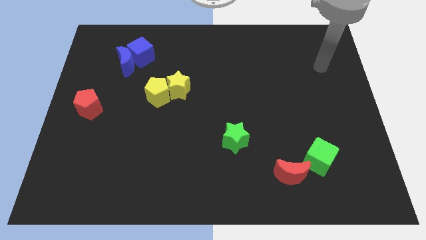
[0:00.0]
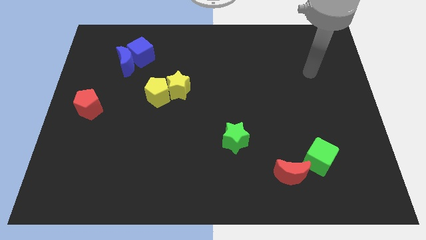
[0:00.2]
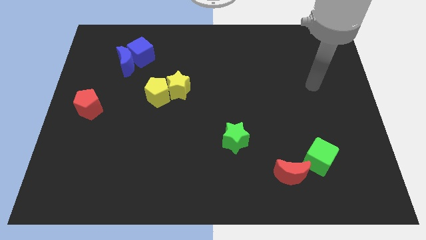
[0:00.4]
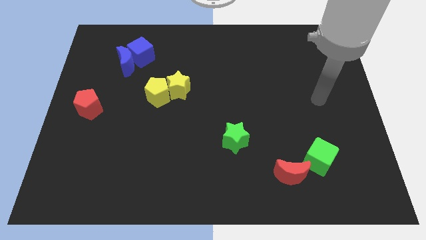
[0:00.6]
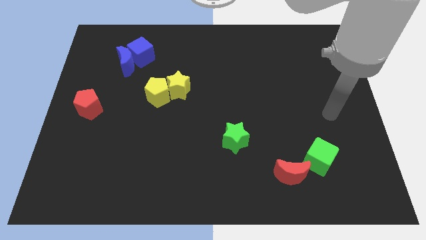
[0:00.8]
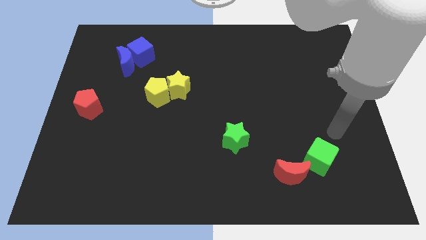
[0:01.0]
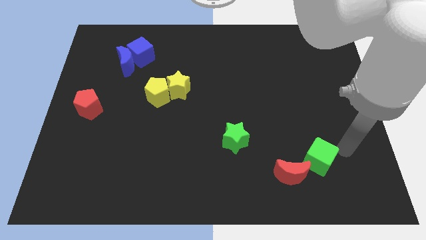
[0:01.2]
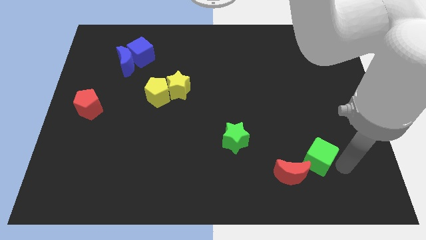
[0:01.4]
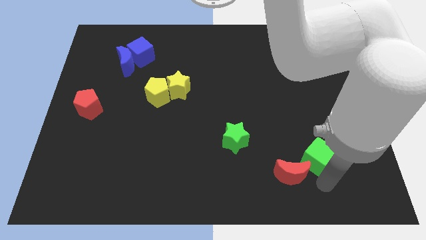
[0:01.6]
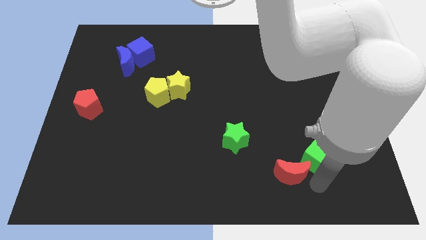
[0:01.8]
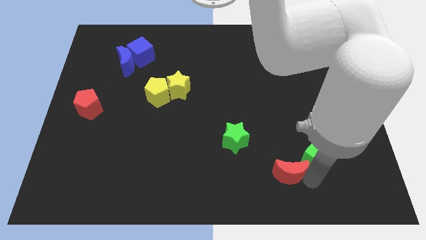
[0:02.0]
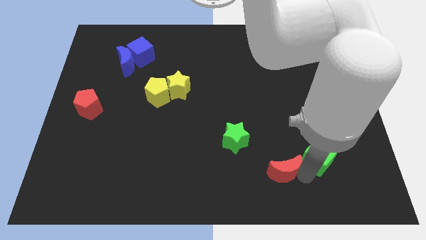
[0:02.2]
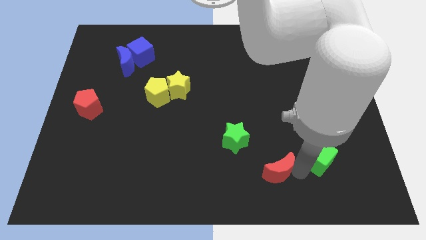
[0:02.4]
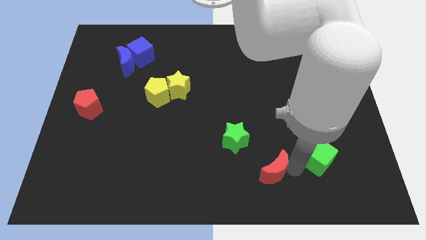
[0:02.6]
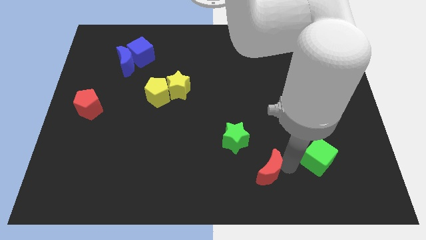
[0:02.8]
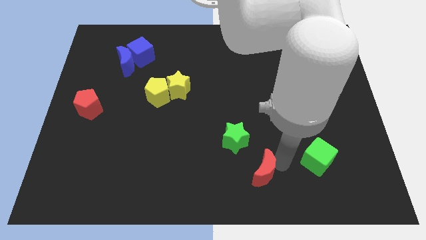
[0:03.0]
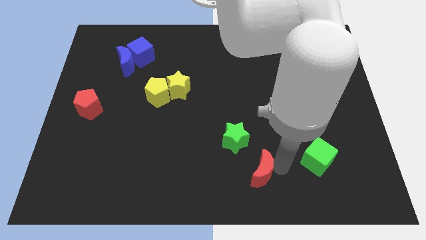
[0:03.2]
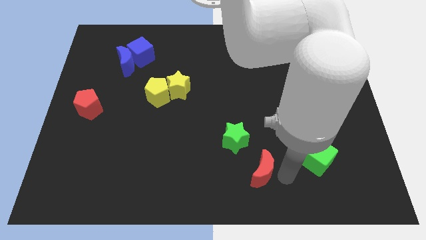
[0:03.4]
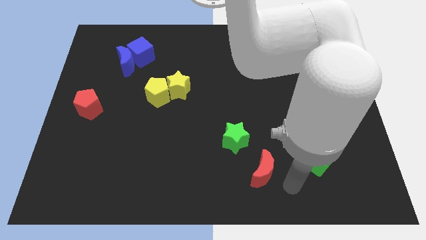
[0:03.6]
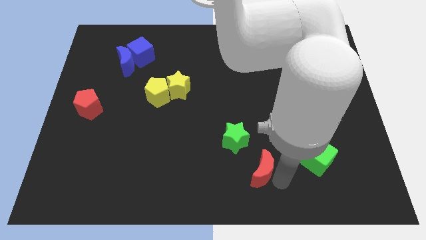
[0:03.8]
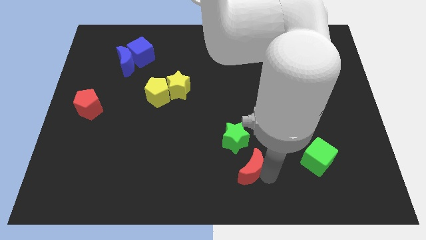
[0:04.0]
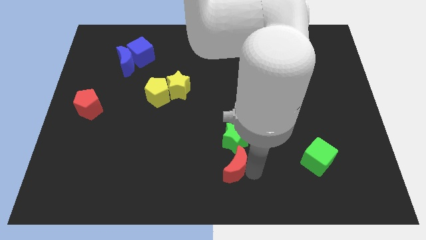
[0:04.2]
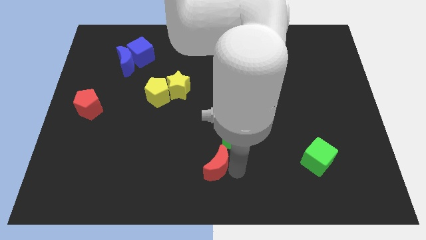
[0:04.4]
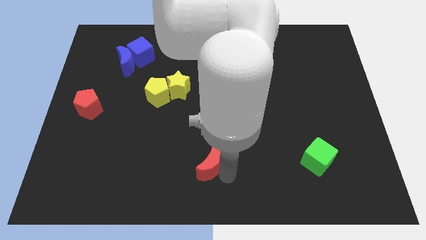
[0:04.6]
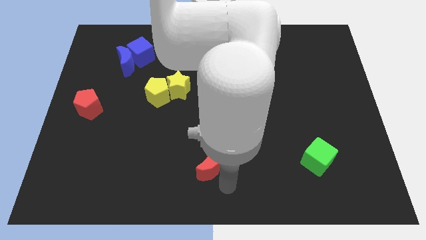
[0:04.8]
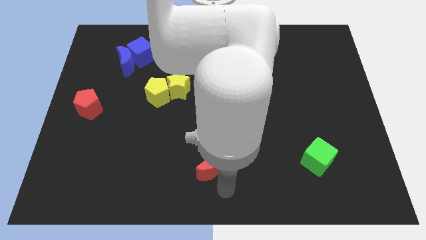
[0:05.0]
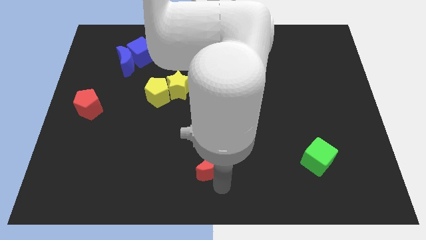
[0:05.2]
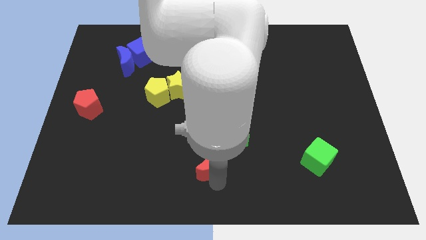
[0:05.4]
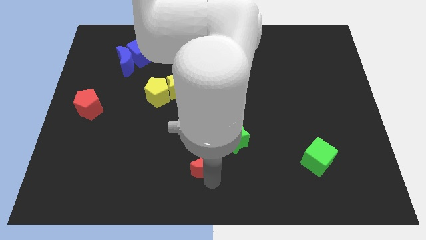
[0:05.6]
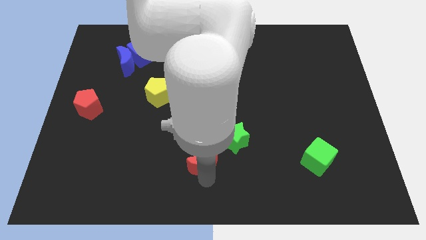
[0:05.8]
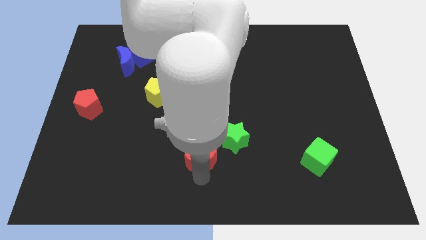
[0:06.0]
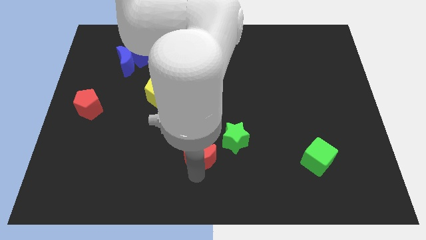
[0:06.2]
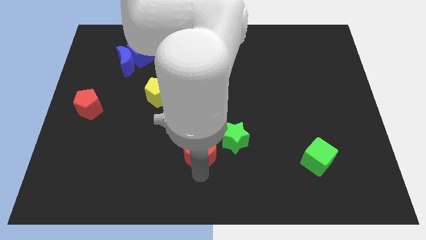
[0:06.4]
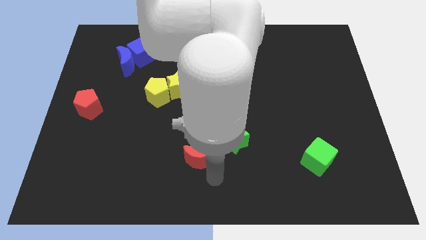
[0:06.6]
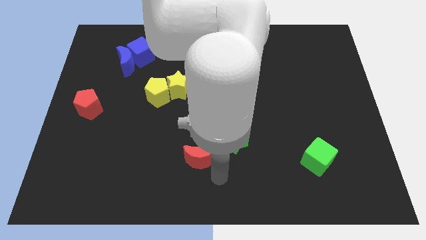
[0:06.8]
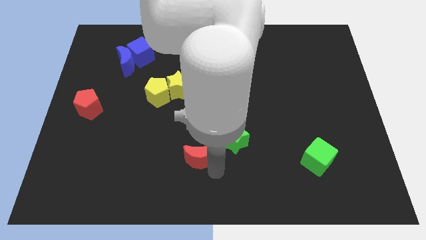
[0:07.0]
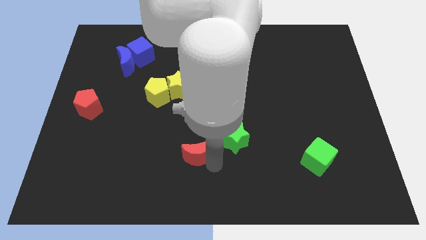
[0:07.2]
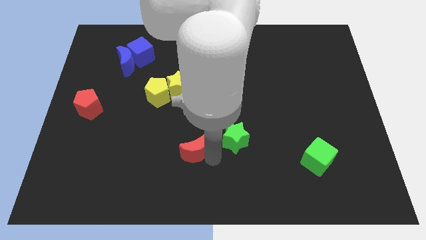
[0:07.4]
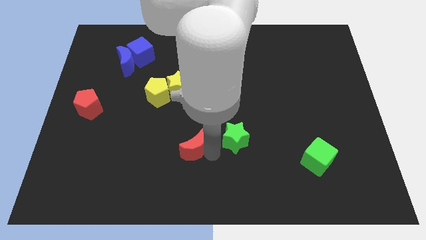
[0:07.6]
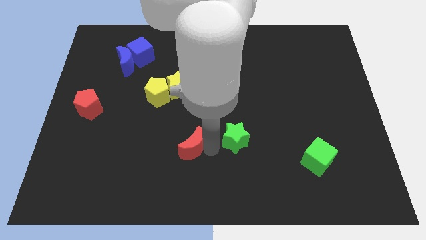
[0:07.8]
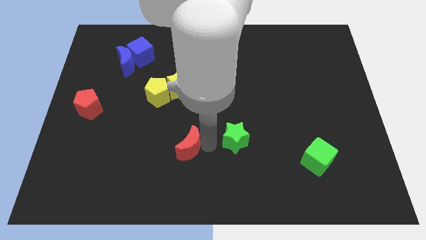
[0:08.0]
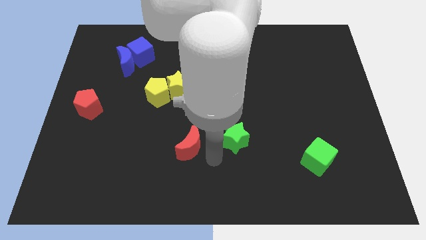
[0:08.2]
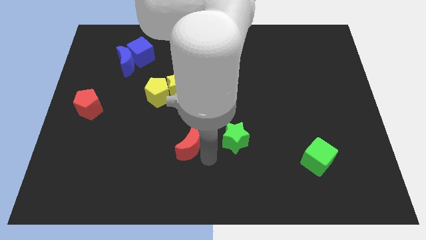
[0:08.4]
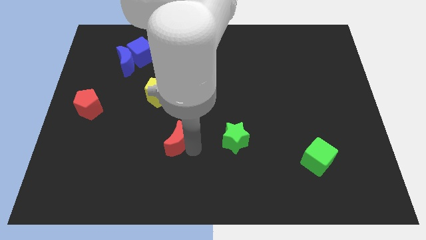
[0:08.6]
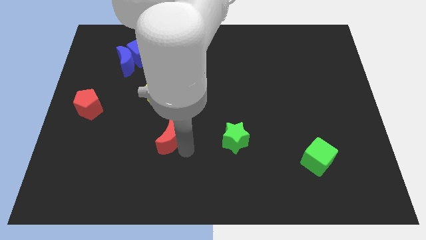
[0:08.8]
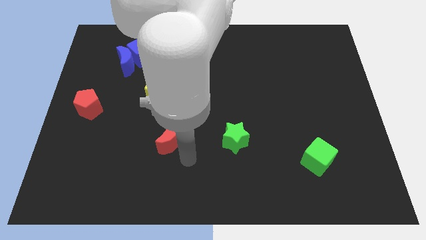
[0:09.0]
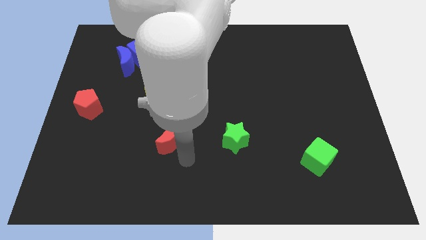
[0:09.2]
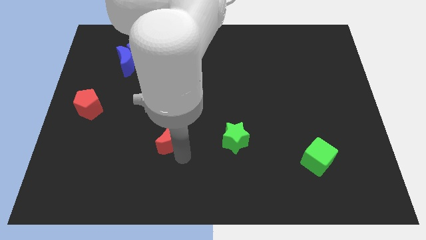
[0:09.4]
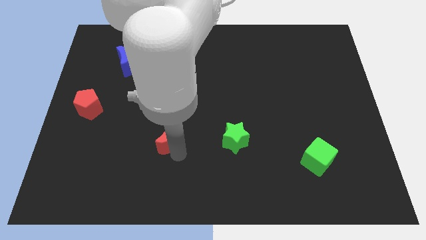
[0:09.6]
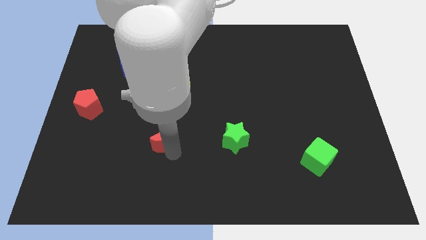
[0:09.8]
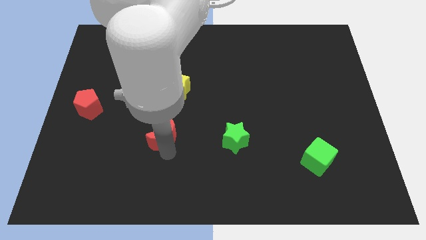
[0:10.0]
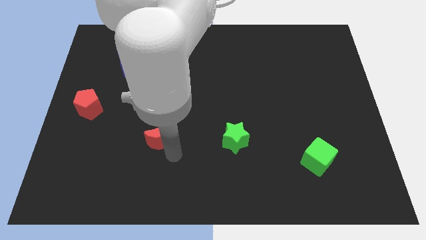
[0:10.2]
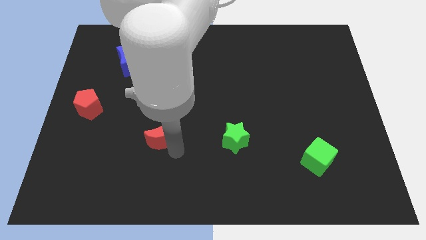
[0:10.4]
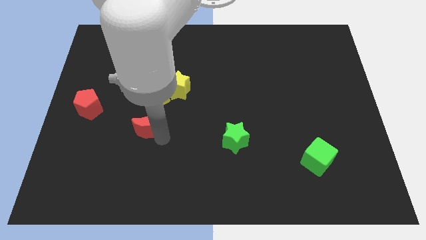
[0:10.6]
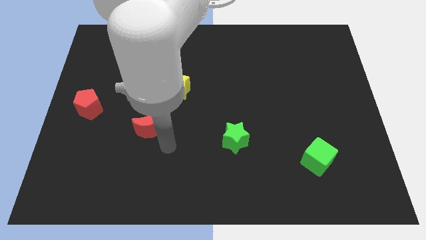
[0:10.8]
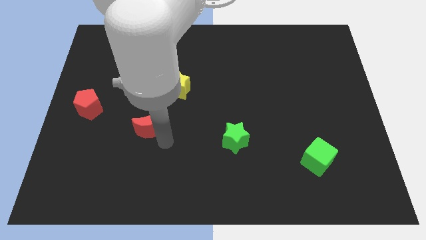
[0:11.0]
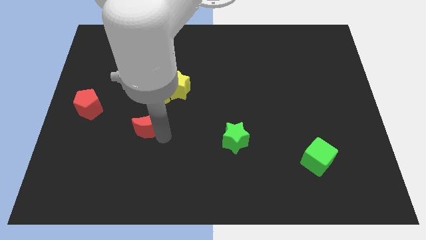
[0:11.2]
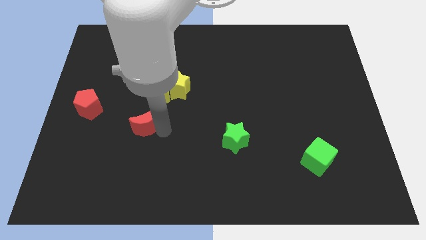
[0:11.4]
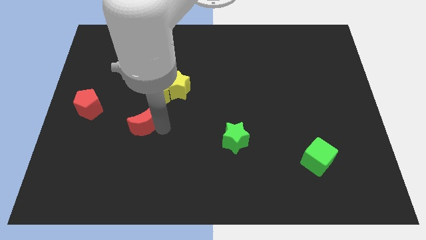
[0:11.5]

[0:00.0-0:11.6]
push the red moon to the bottom left of the yellow pentagon

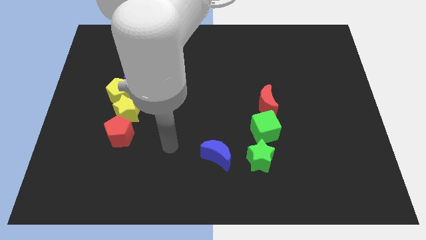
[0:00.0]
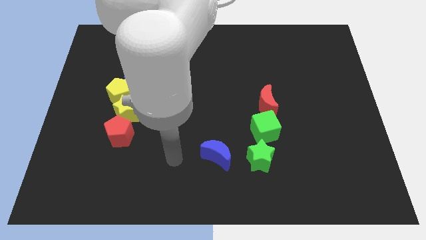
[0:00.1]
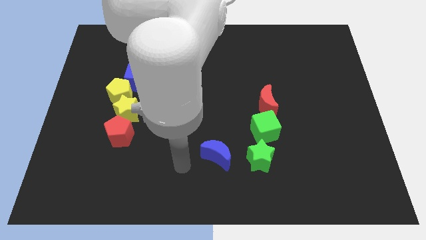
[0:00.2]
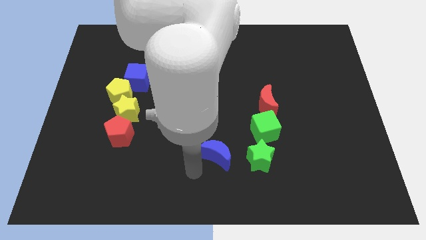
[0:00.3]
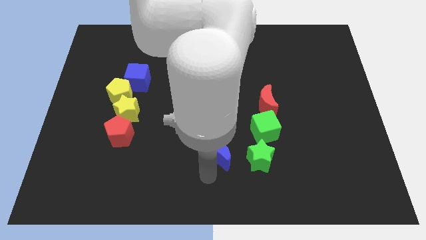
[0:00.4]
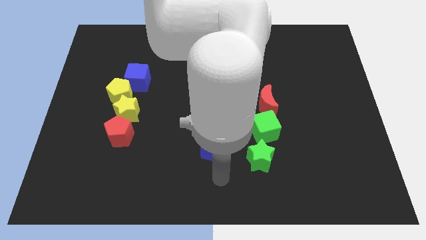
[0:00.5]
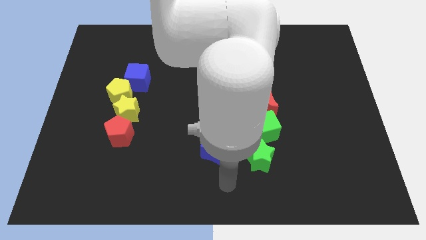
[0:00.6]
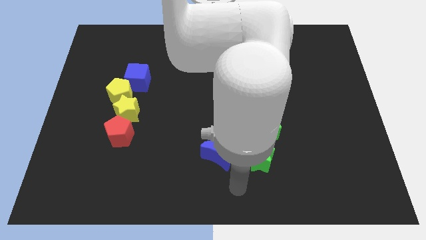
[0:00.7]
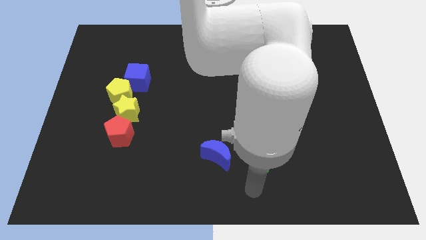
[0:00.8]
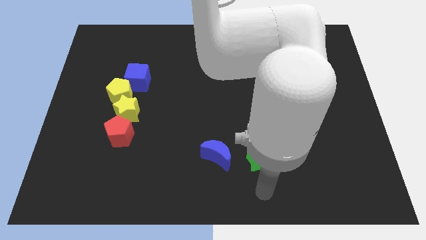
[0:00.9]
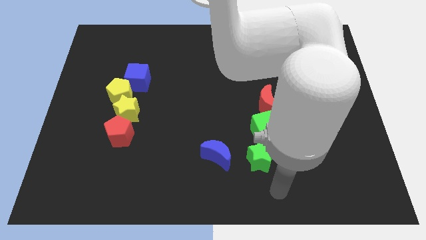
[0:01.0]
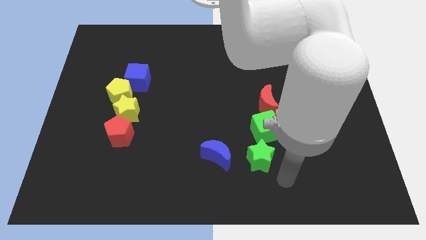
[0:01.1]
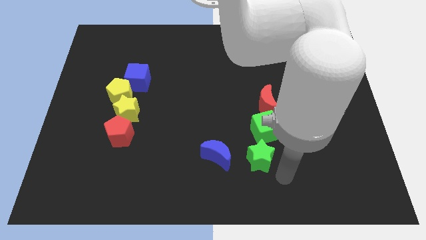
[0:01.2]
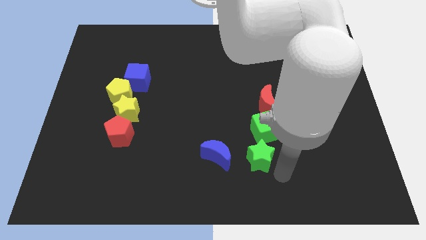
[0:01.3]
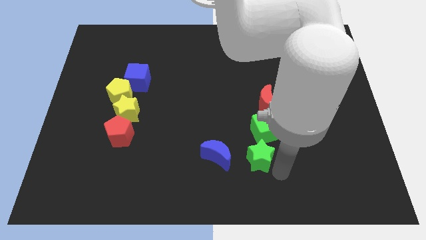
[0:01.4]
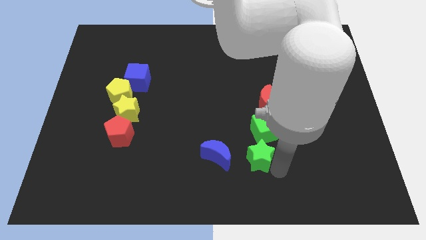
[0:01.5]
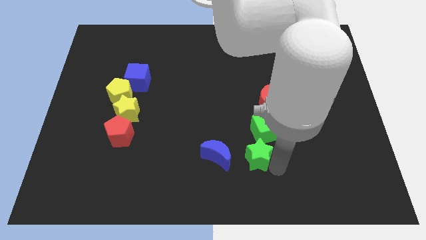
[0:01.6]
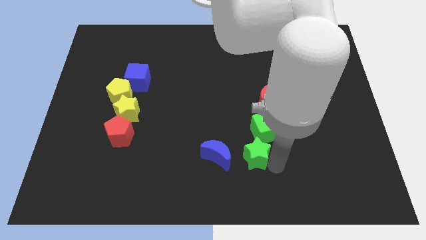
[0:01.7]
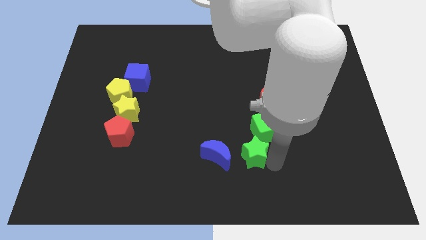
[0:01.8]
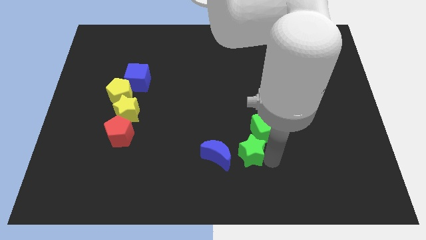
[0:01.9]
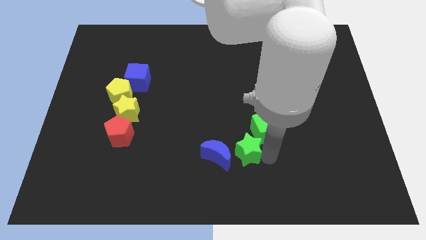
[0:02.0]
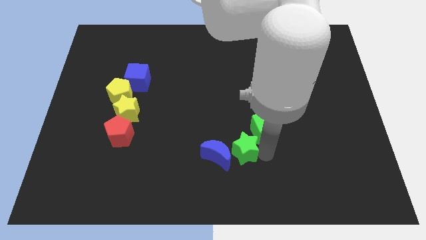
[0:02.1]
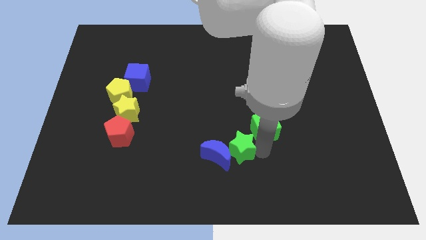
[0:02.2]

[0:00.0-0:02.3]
push the green star to the left of the green cube
